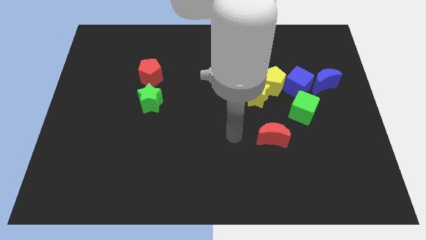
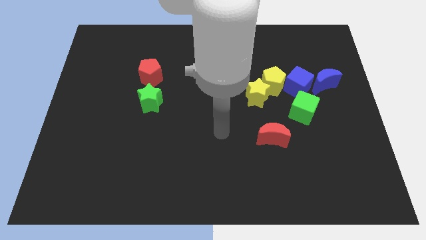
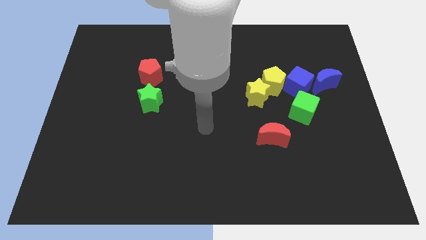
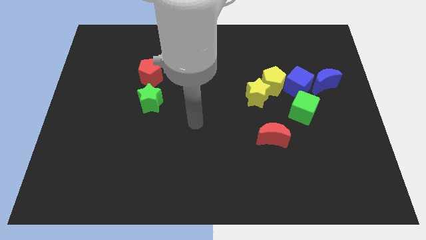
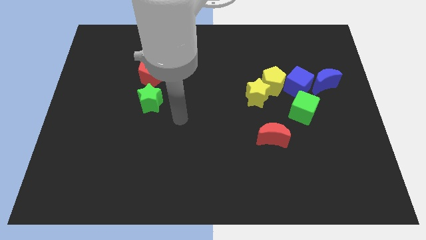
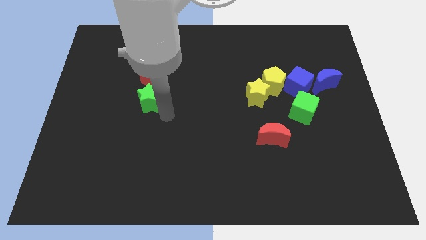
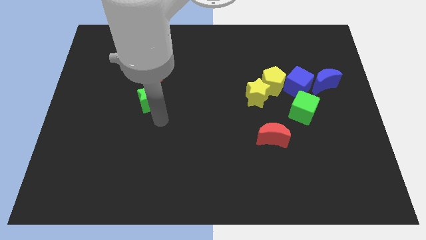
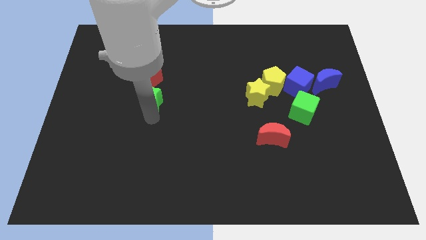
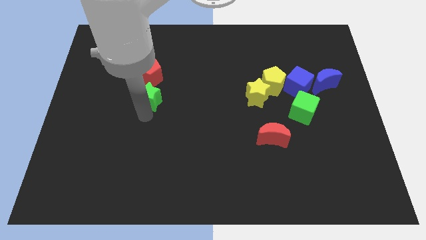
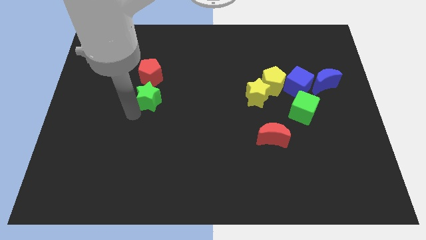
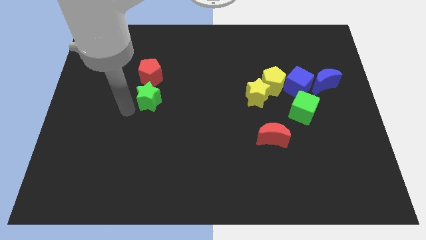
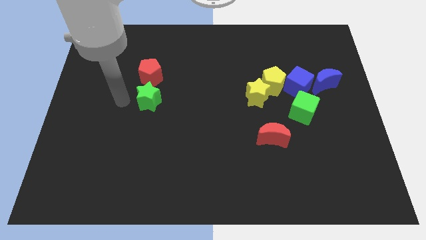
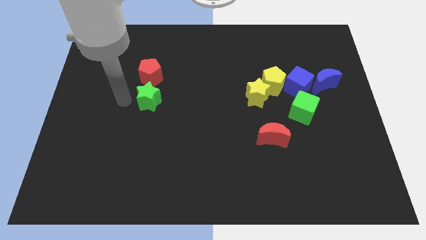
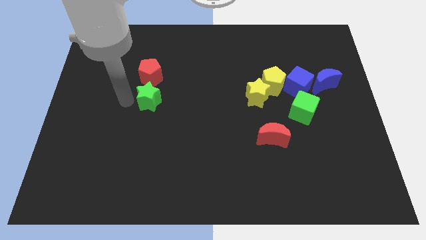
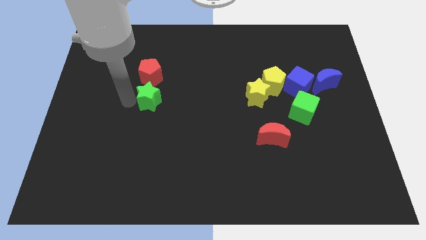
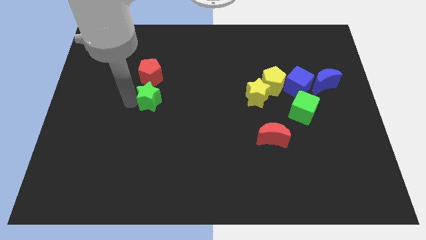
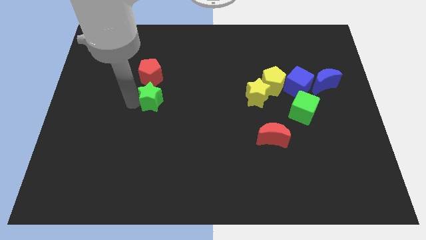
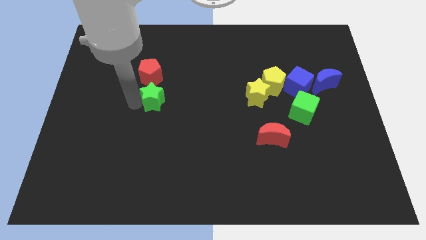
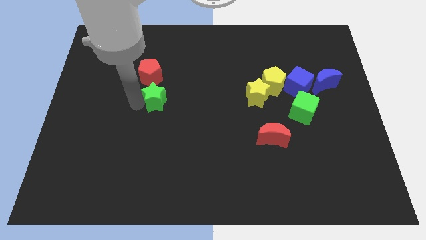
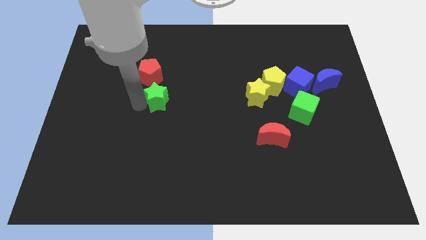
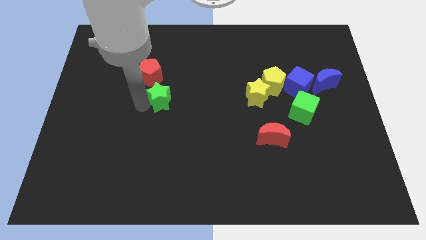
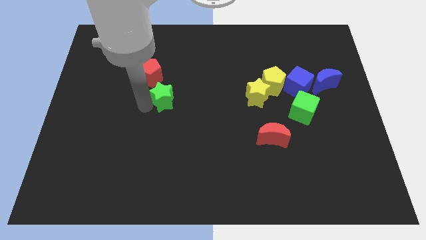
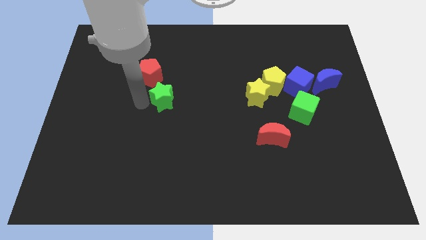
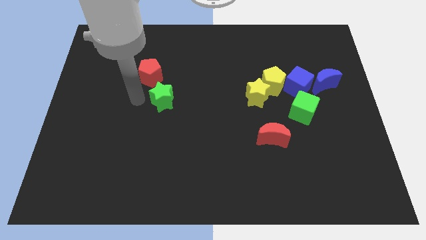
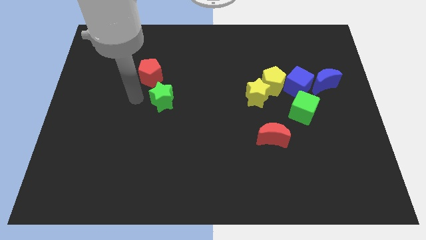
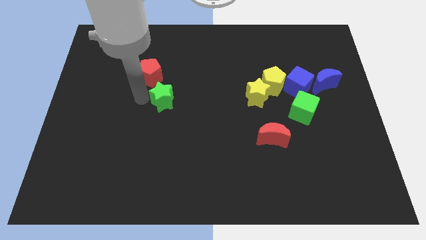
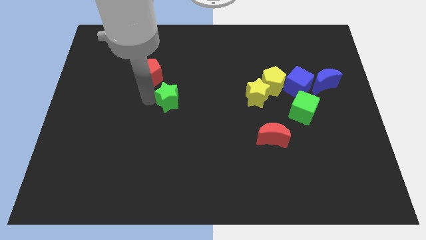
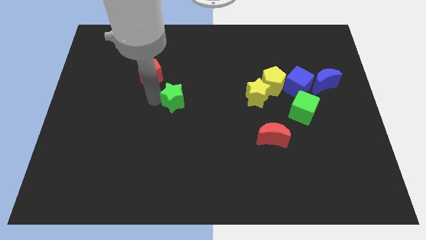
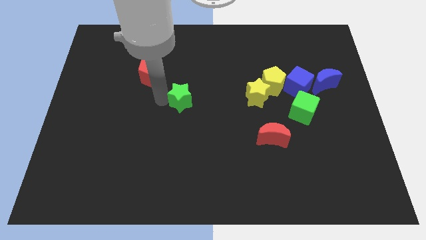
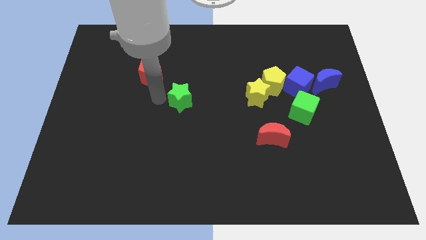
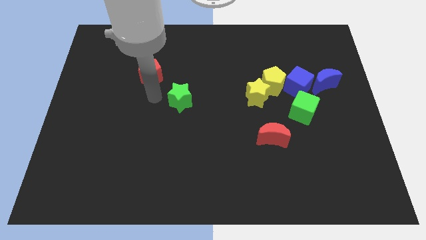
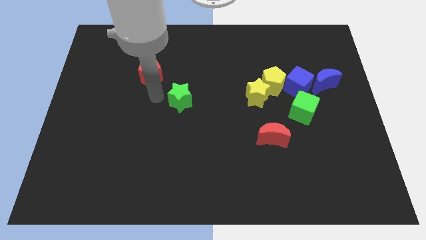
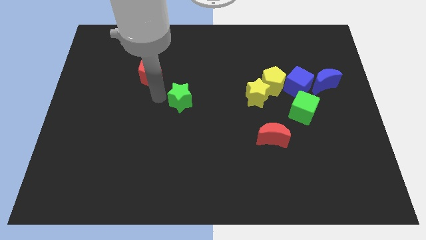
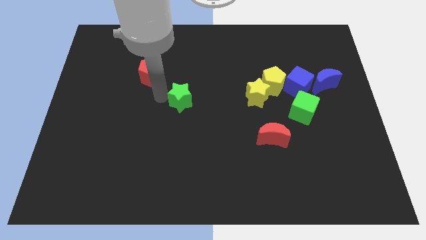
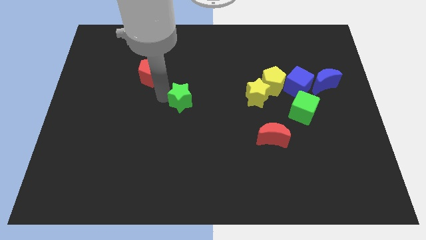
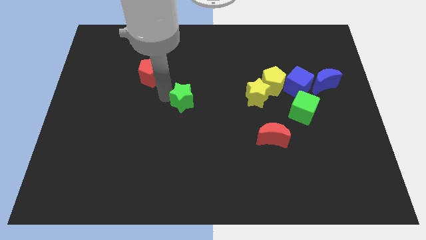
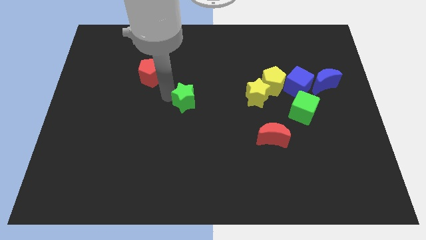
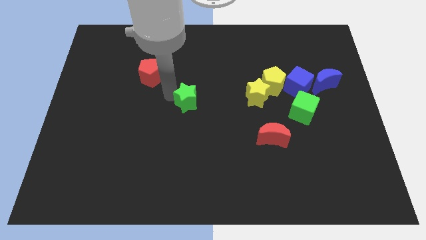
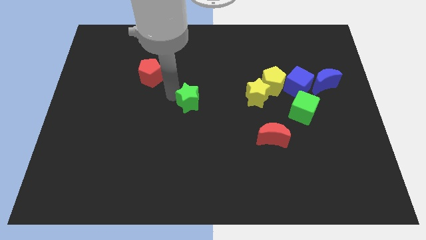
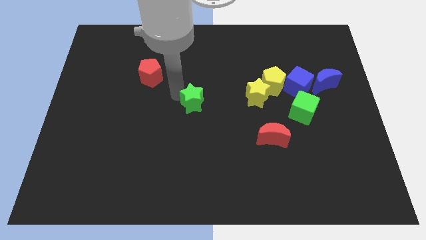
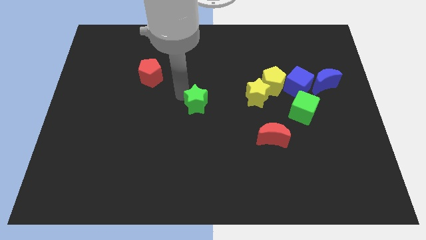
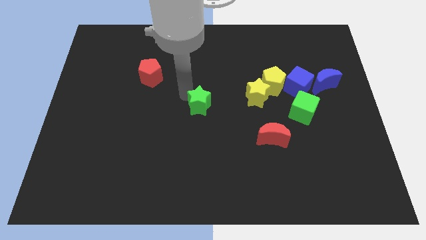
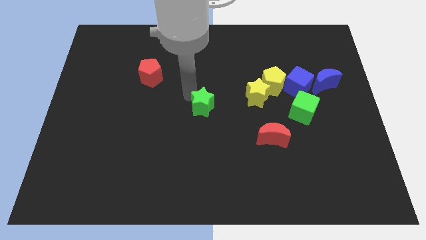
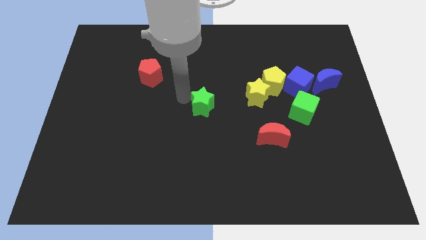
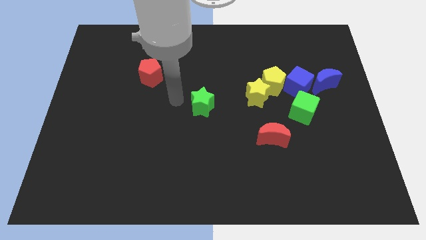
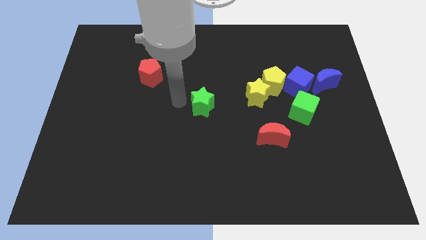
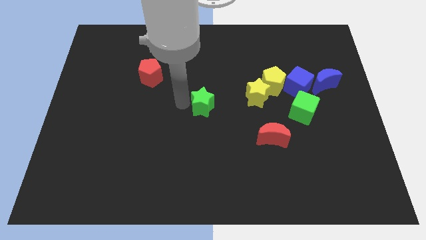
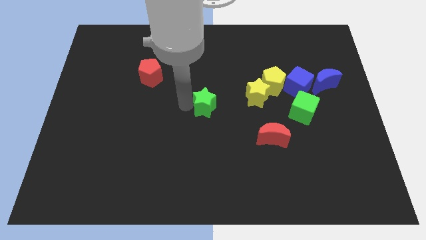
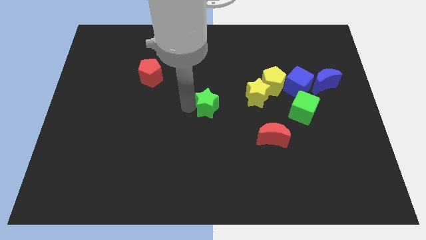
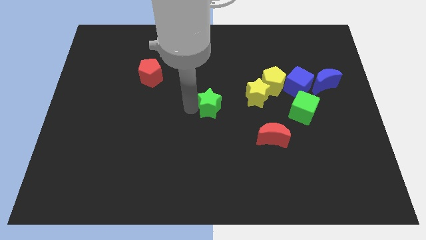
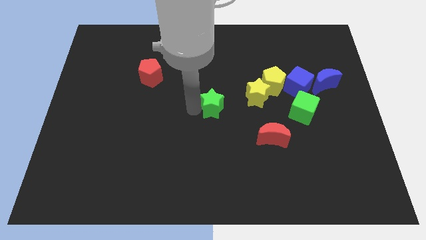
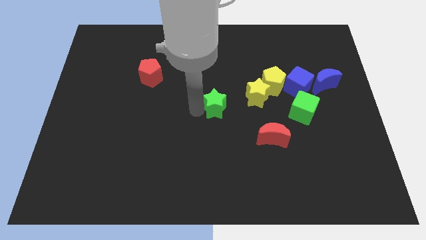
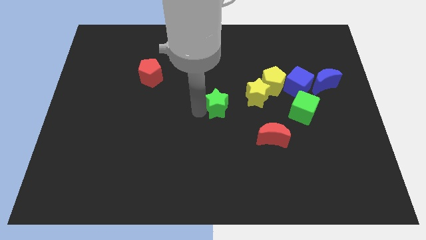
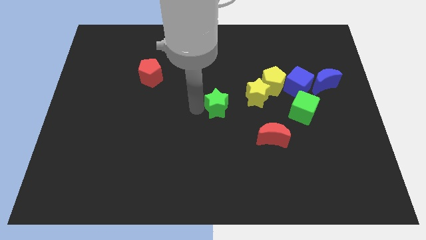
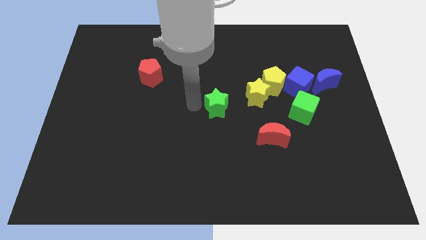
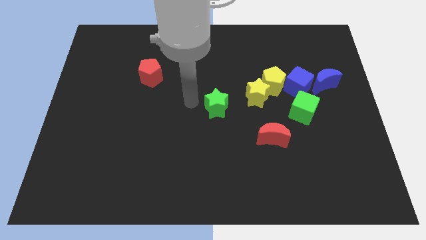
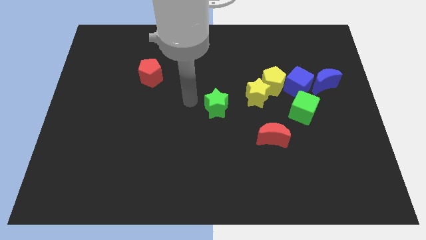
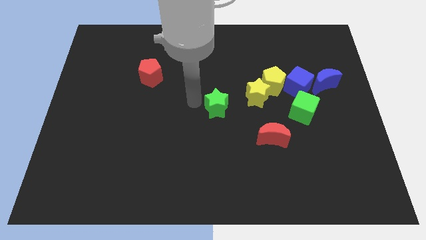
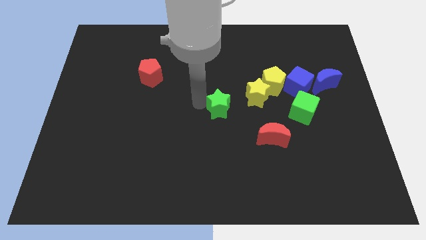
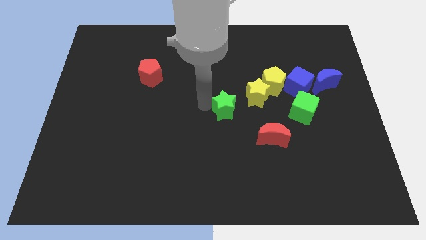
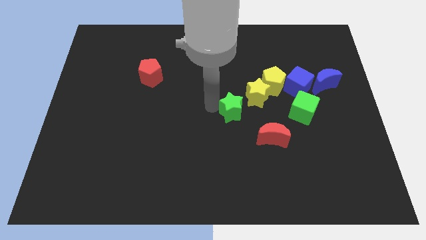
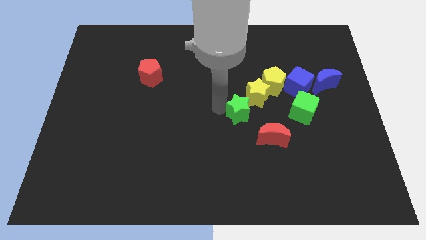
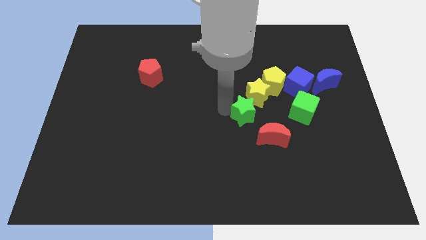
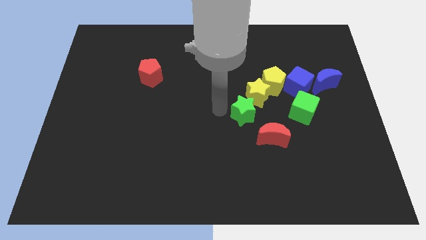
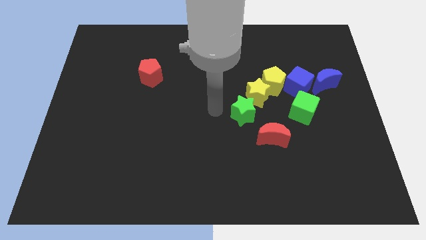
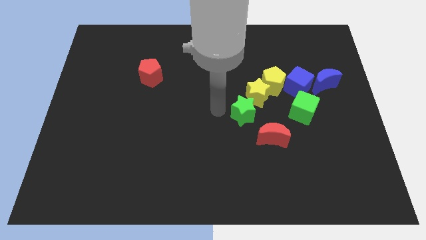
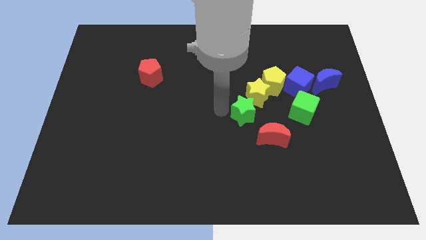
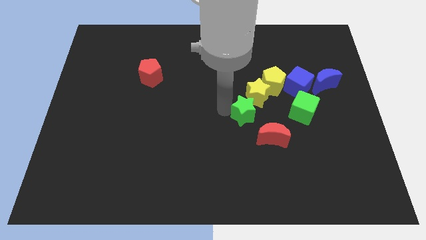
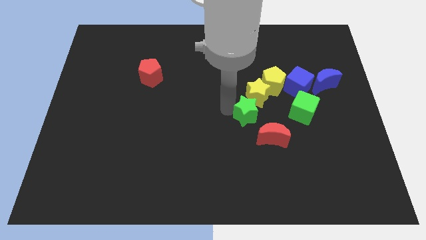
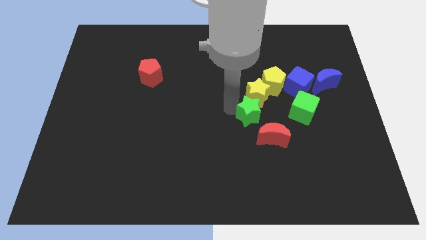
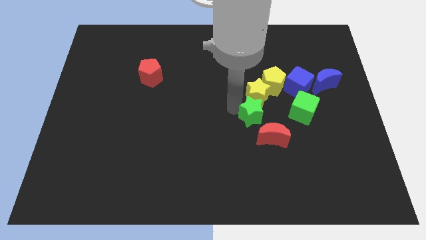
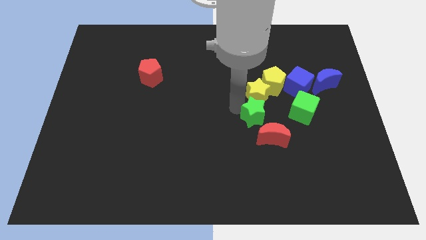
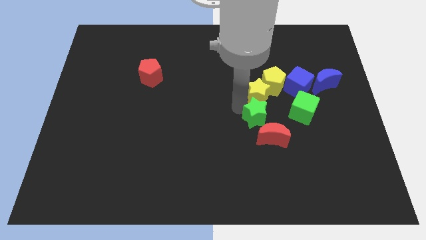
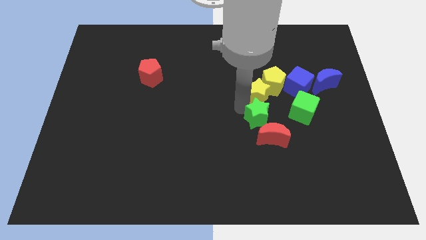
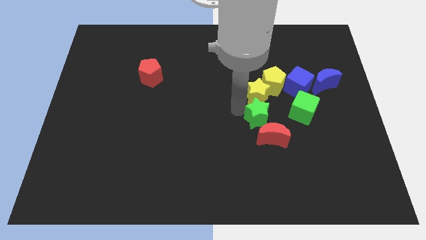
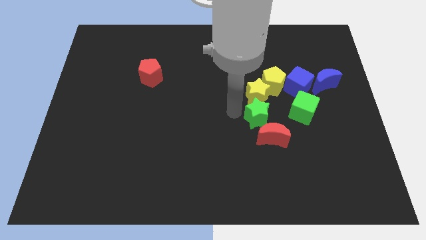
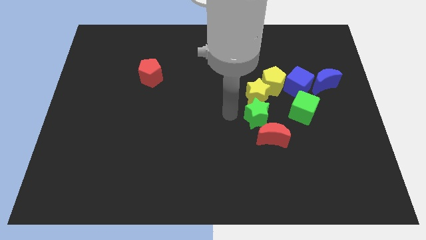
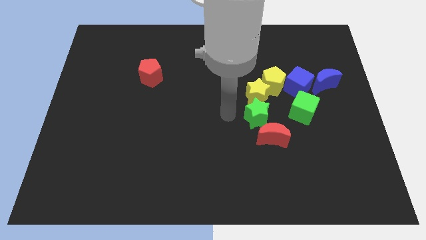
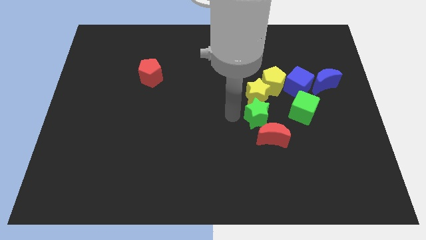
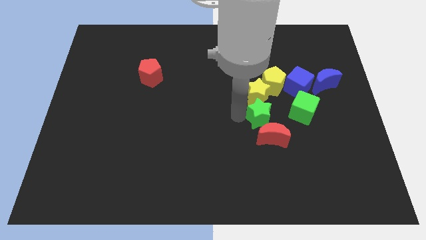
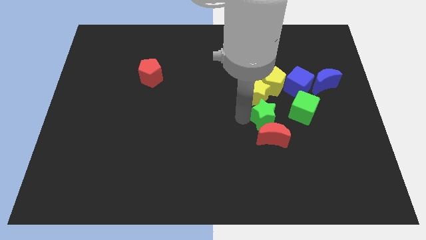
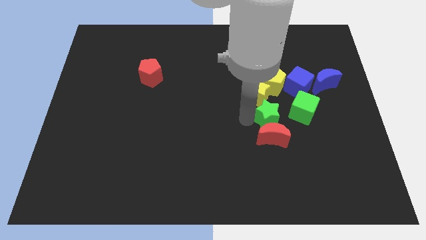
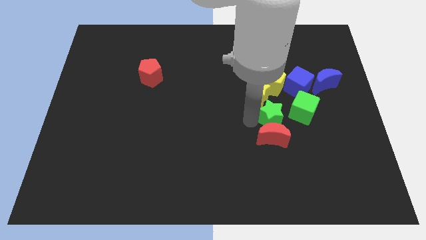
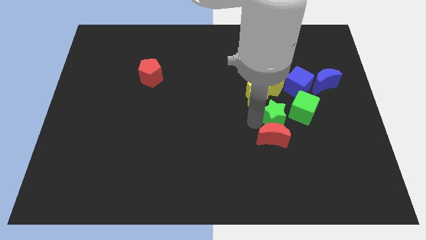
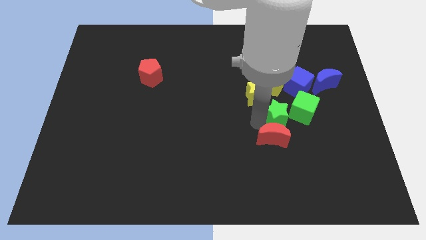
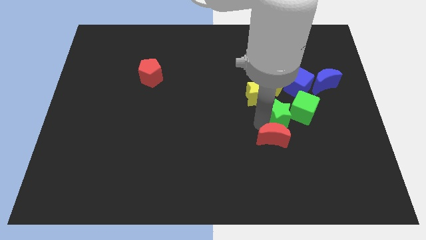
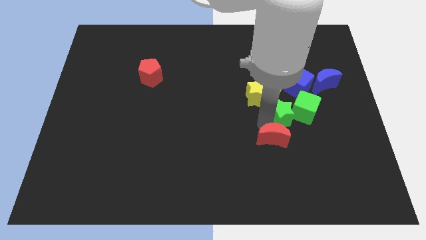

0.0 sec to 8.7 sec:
put the green star towards the green cube
